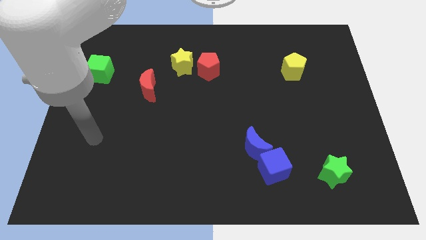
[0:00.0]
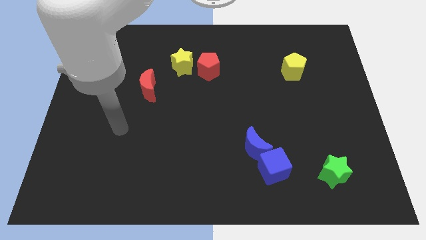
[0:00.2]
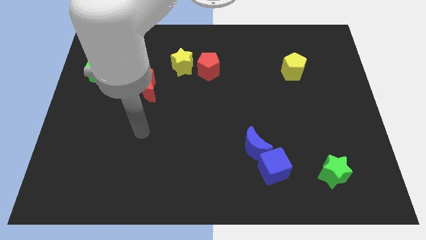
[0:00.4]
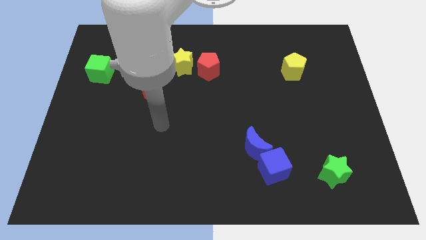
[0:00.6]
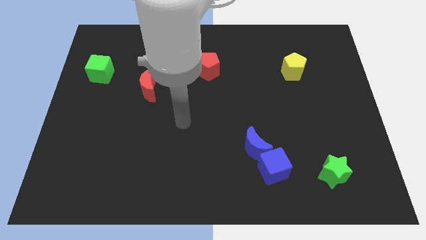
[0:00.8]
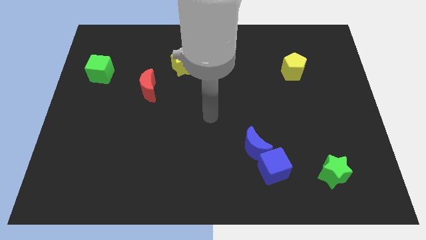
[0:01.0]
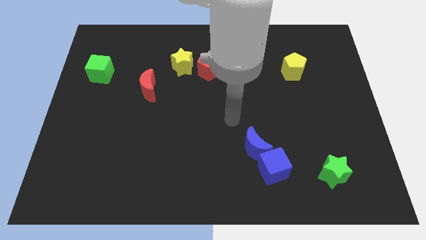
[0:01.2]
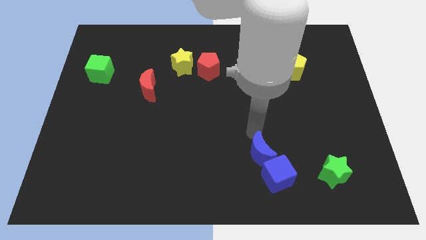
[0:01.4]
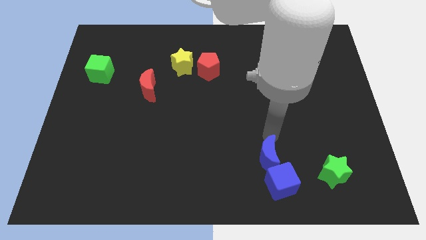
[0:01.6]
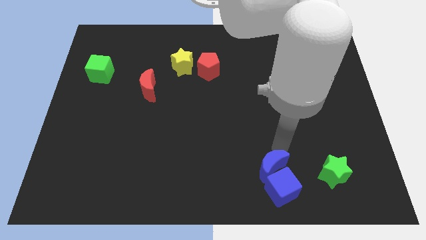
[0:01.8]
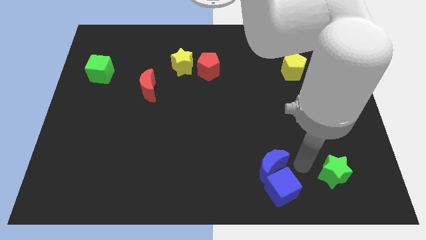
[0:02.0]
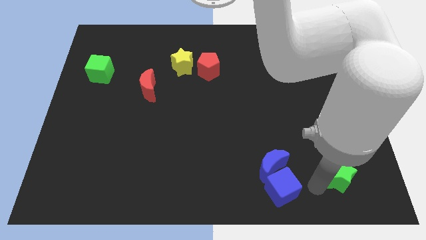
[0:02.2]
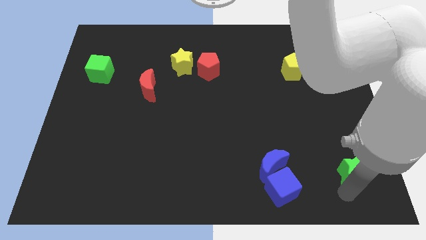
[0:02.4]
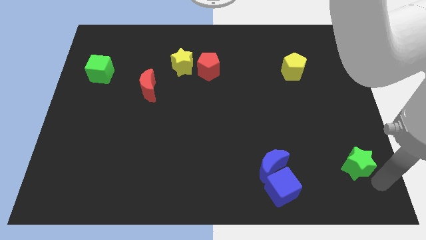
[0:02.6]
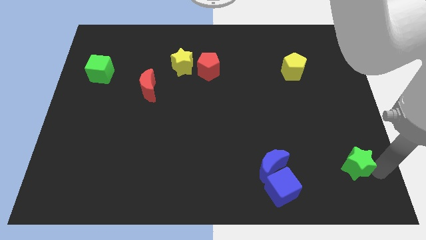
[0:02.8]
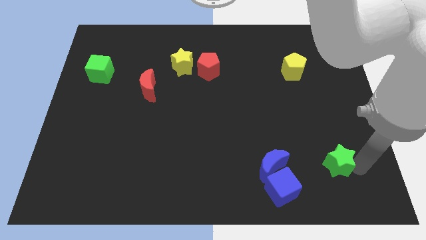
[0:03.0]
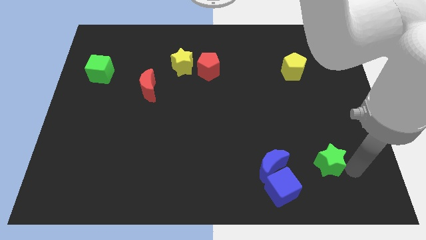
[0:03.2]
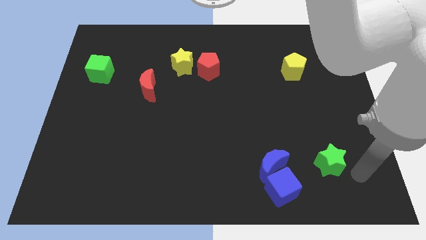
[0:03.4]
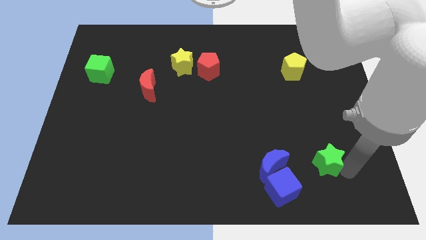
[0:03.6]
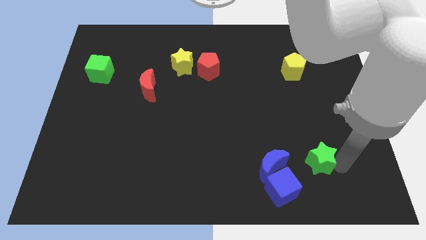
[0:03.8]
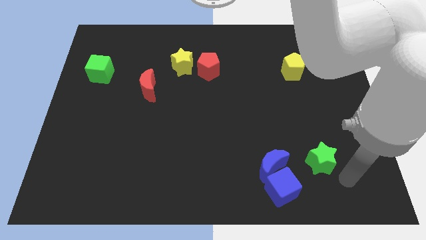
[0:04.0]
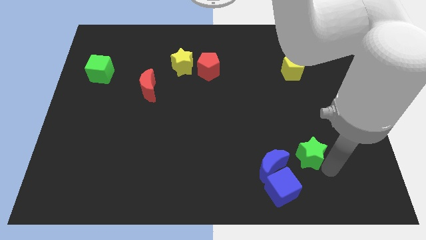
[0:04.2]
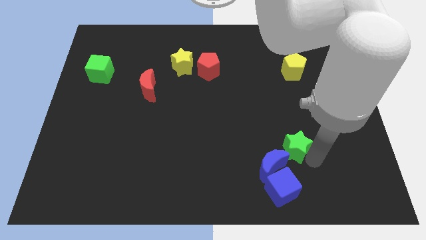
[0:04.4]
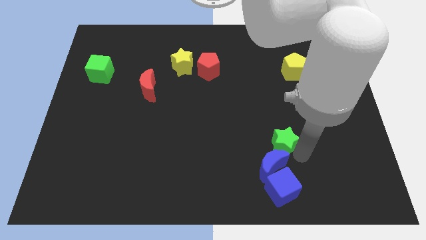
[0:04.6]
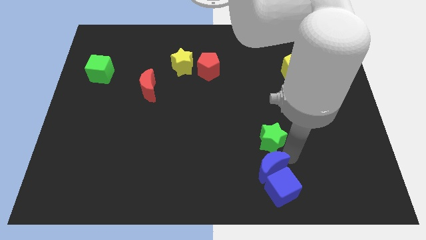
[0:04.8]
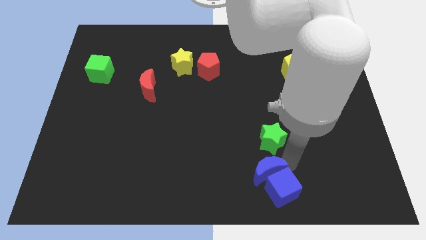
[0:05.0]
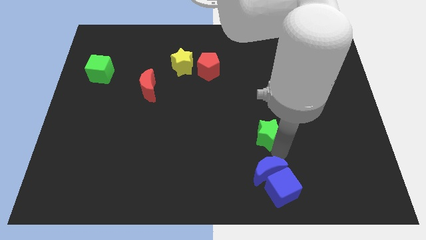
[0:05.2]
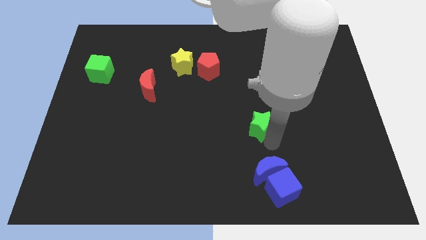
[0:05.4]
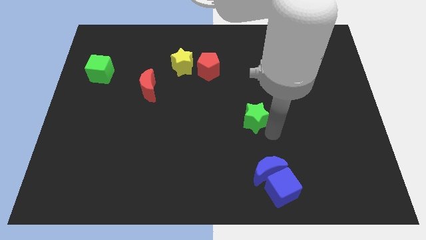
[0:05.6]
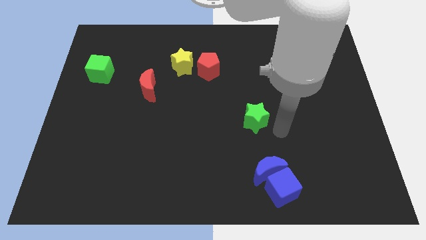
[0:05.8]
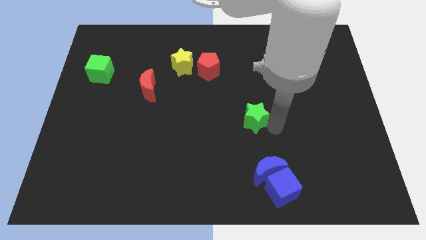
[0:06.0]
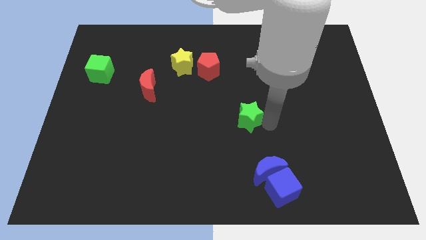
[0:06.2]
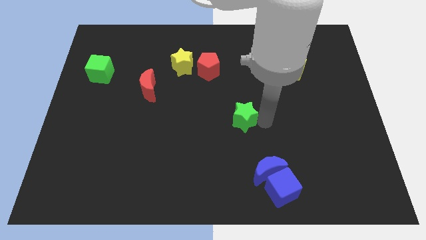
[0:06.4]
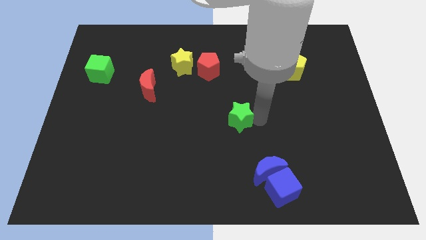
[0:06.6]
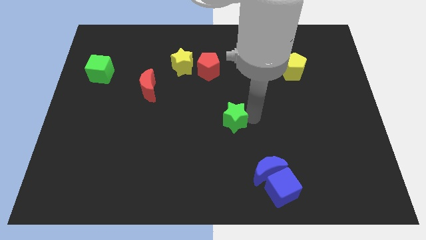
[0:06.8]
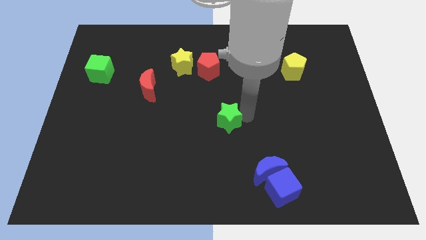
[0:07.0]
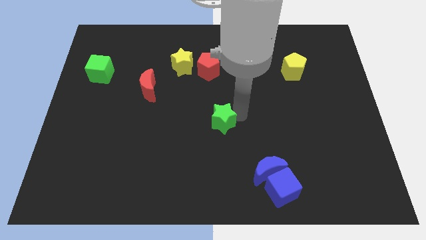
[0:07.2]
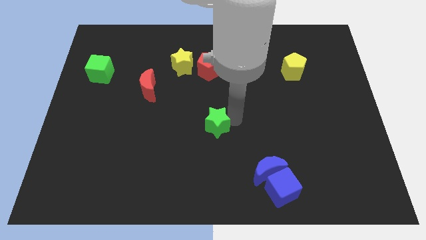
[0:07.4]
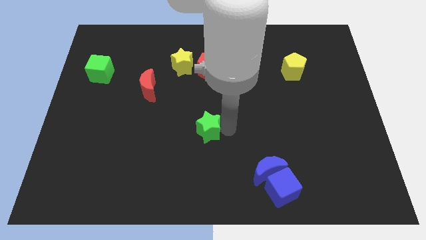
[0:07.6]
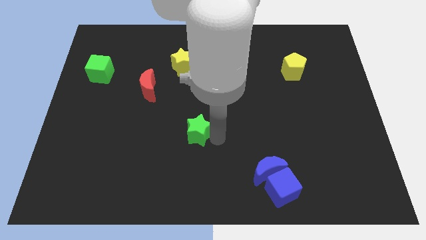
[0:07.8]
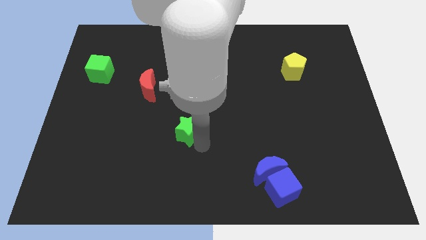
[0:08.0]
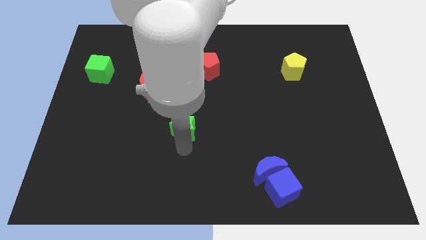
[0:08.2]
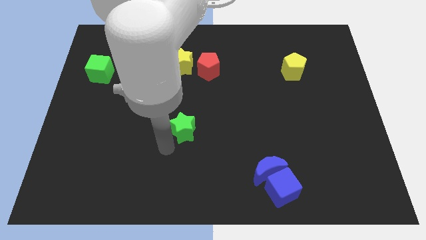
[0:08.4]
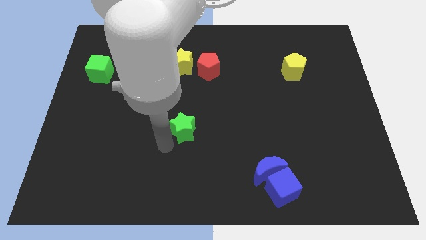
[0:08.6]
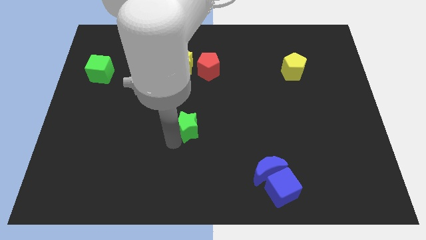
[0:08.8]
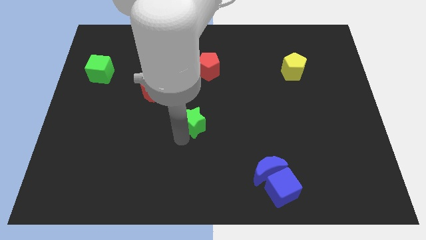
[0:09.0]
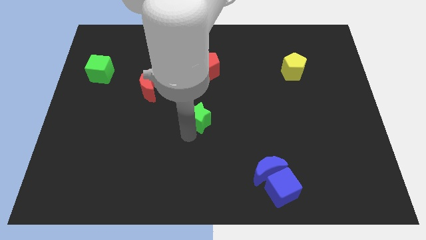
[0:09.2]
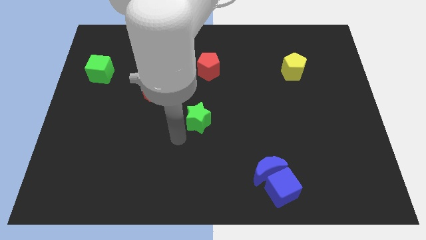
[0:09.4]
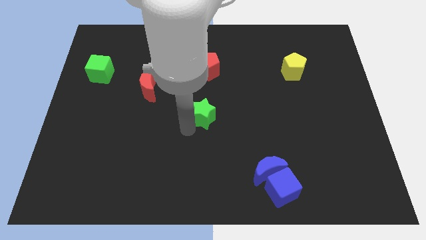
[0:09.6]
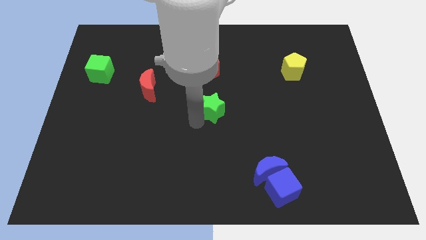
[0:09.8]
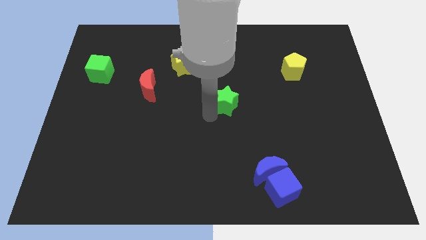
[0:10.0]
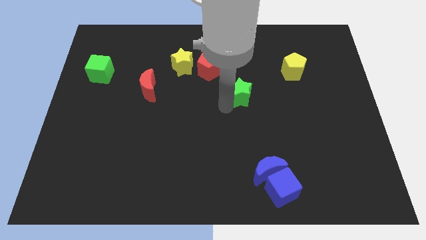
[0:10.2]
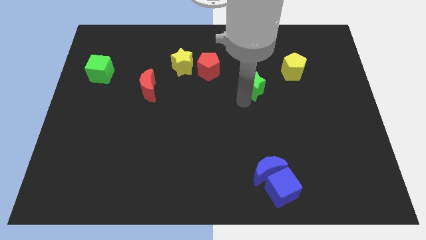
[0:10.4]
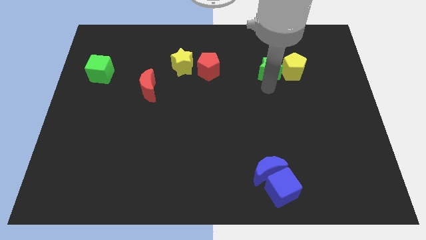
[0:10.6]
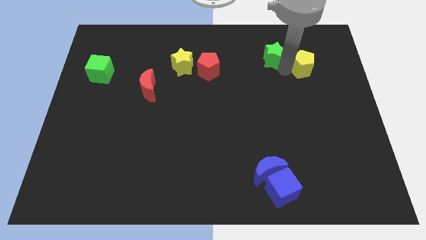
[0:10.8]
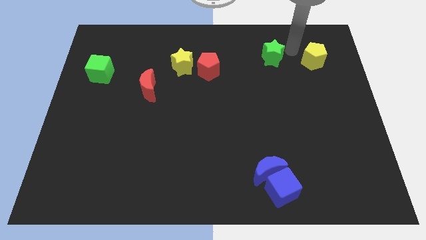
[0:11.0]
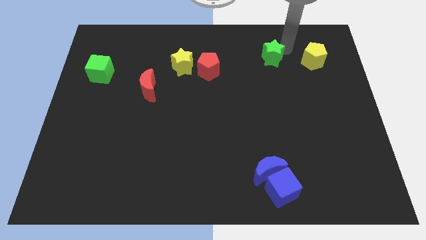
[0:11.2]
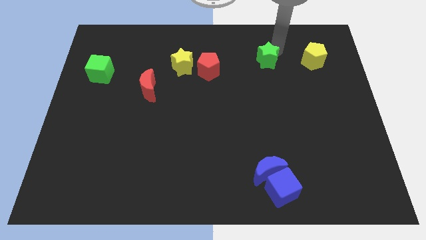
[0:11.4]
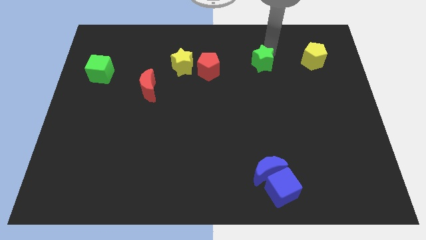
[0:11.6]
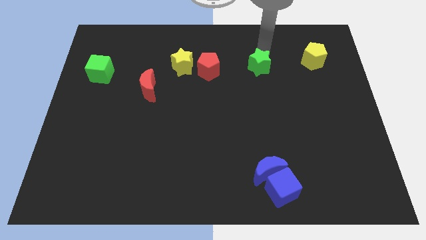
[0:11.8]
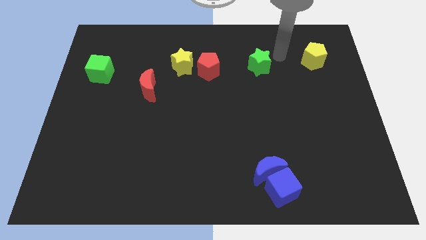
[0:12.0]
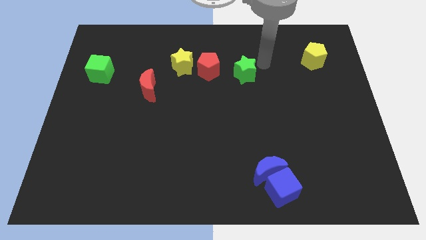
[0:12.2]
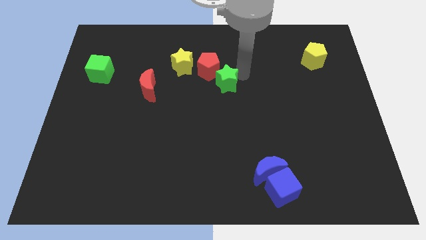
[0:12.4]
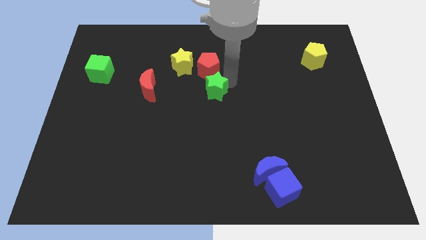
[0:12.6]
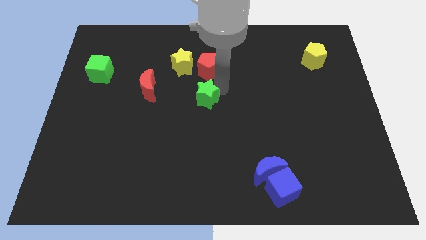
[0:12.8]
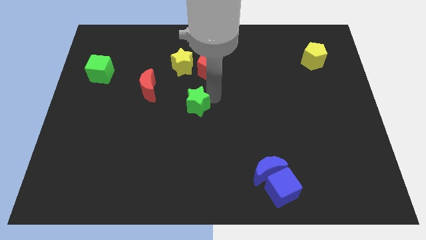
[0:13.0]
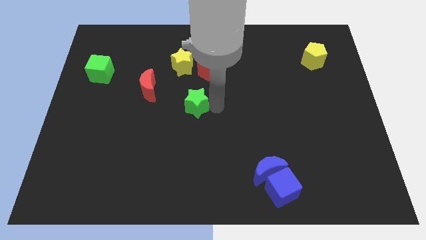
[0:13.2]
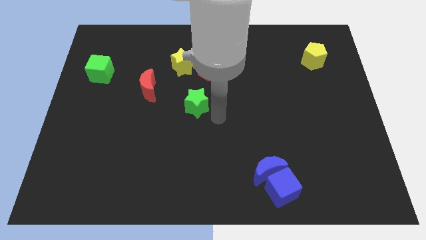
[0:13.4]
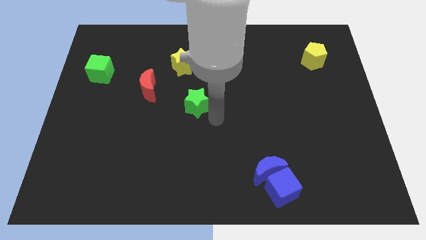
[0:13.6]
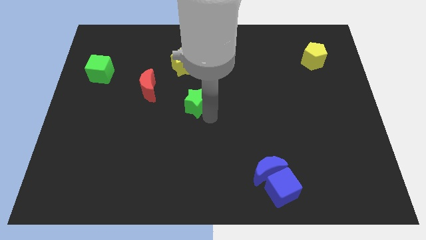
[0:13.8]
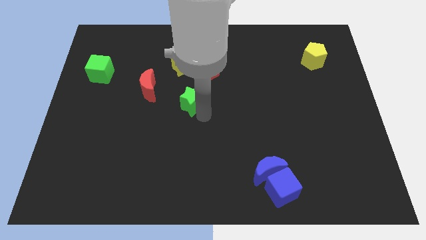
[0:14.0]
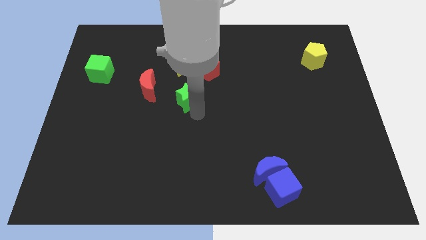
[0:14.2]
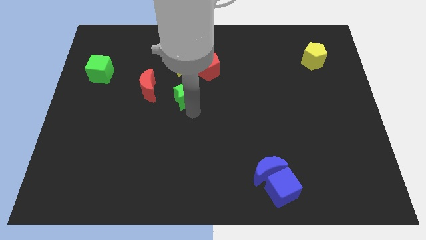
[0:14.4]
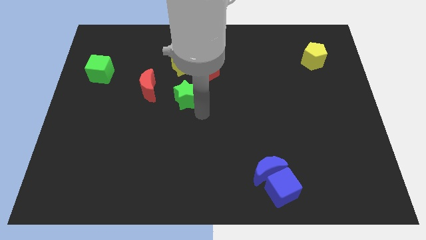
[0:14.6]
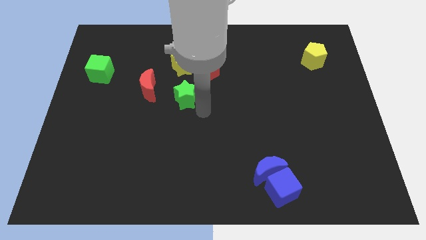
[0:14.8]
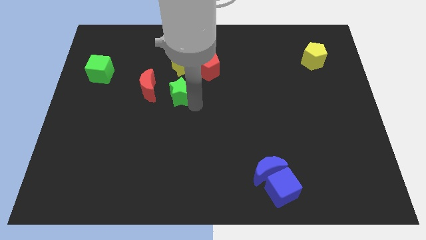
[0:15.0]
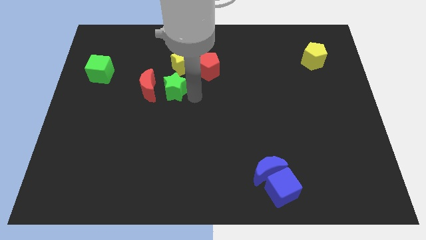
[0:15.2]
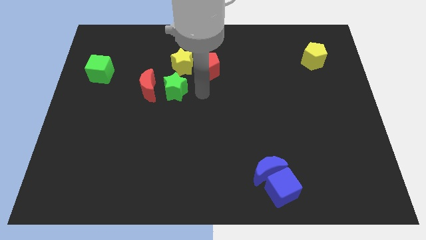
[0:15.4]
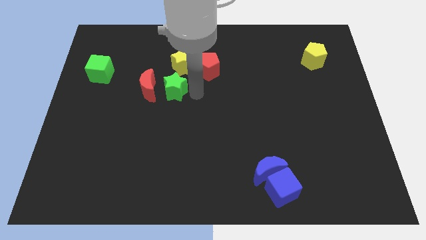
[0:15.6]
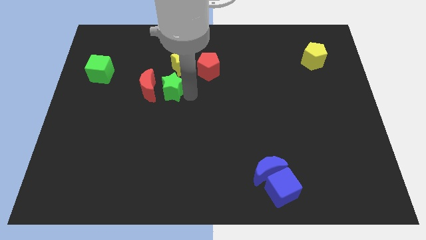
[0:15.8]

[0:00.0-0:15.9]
slide the green star close to the red moon
